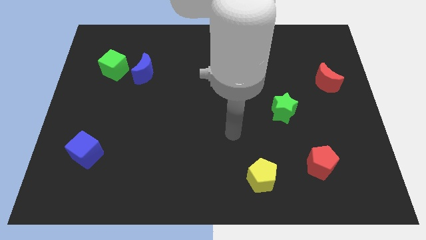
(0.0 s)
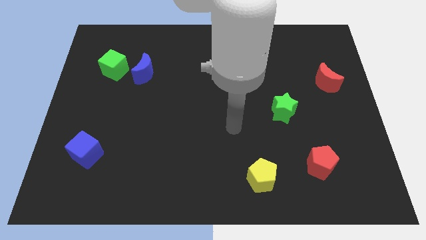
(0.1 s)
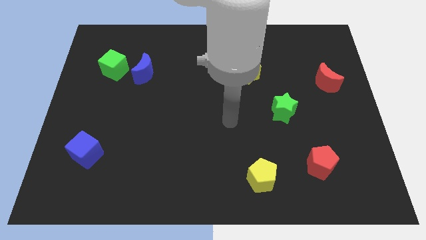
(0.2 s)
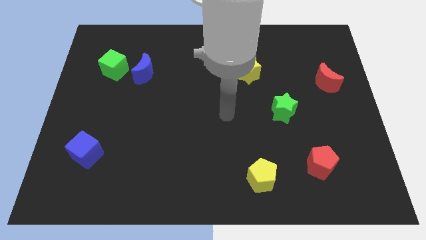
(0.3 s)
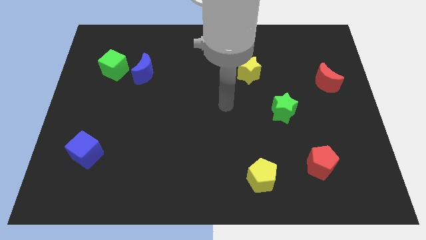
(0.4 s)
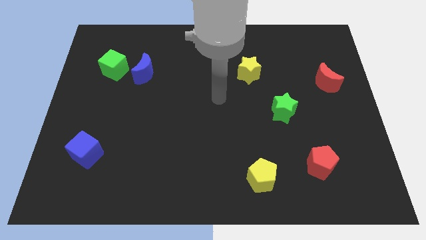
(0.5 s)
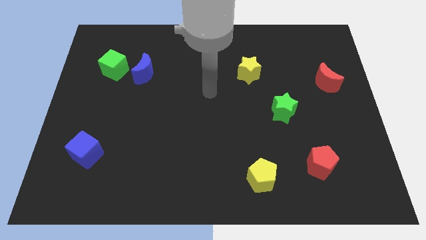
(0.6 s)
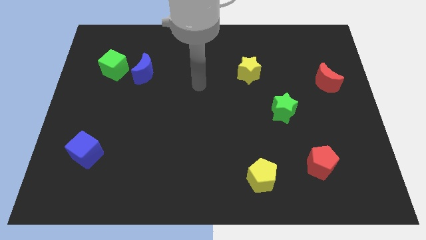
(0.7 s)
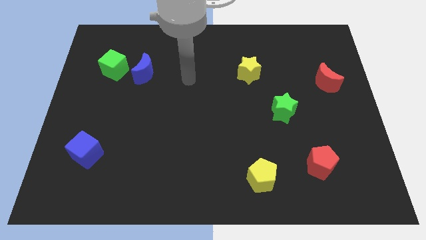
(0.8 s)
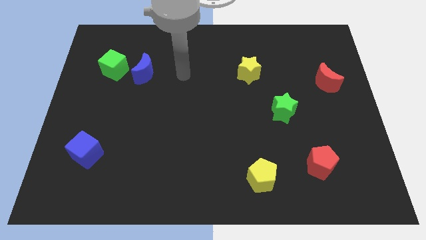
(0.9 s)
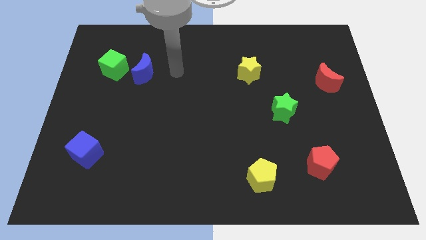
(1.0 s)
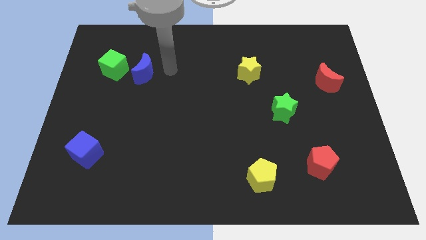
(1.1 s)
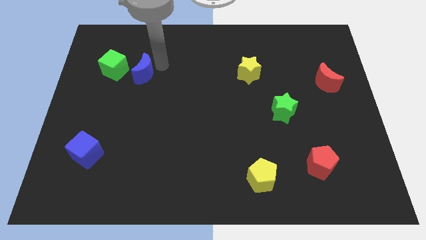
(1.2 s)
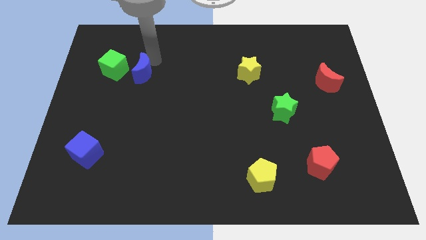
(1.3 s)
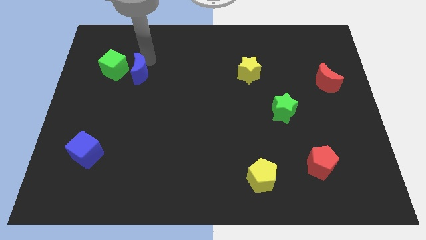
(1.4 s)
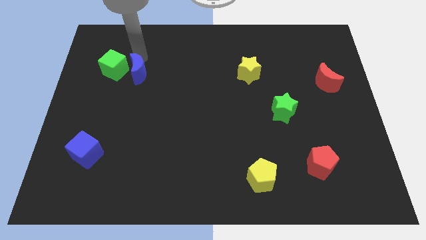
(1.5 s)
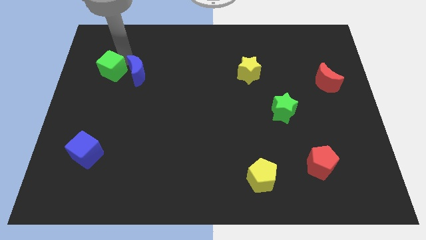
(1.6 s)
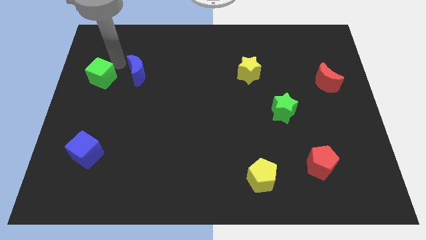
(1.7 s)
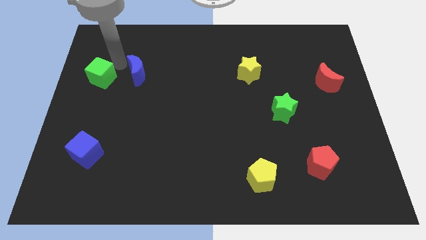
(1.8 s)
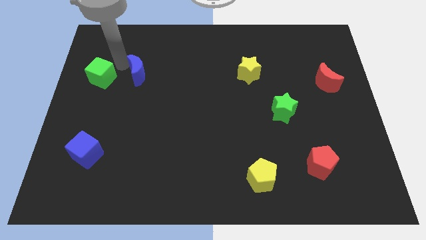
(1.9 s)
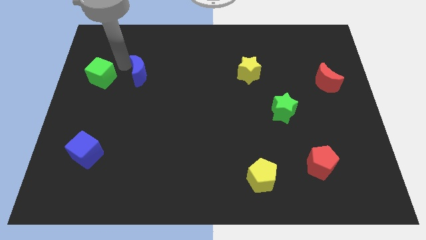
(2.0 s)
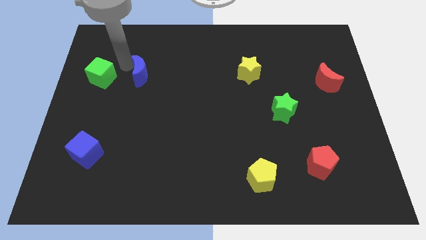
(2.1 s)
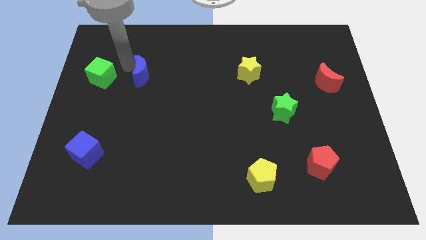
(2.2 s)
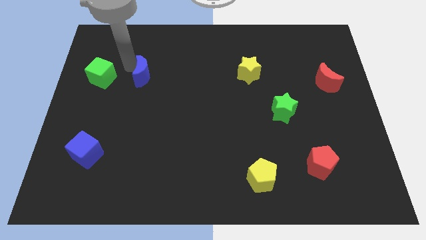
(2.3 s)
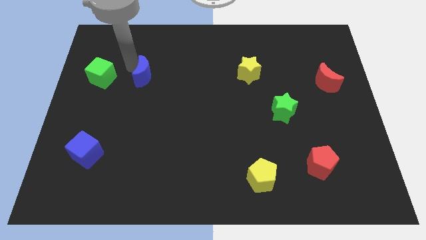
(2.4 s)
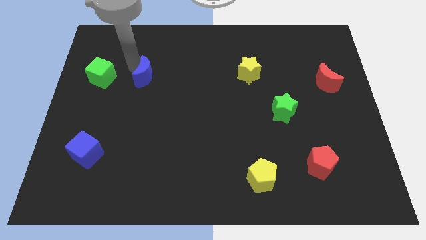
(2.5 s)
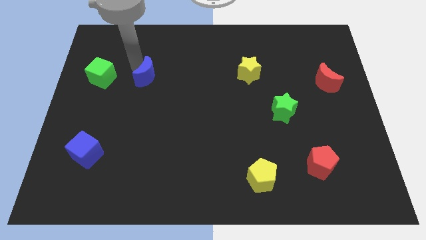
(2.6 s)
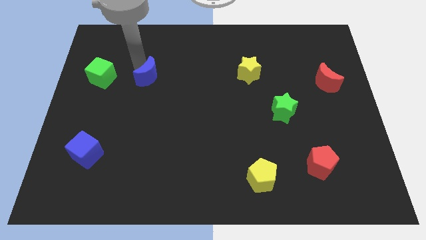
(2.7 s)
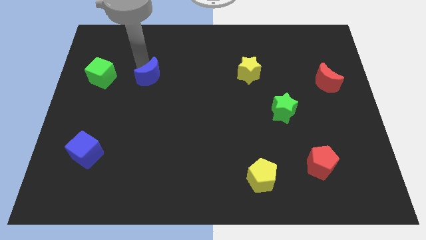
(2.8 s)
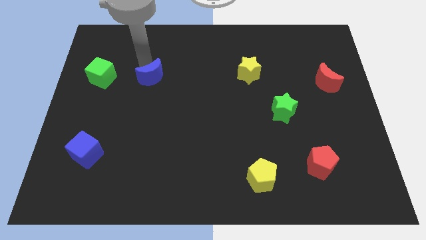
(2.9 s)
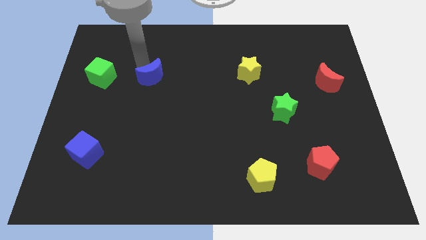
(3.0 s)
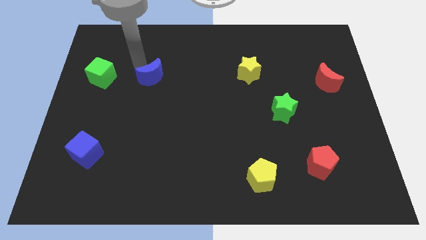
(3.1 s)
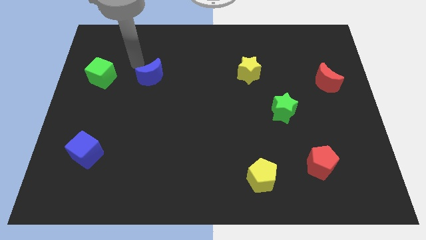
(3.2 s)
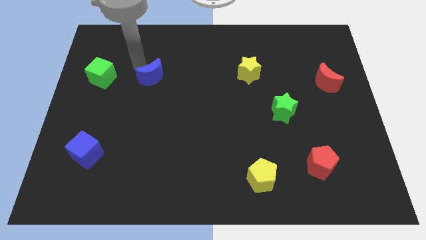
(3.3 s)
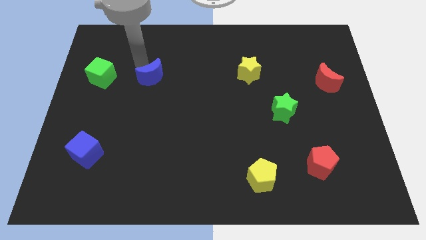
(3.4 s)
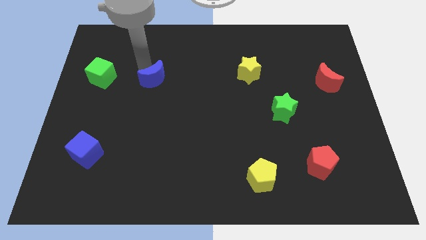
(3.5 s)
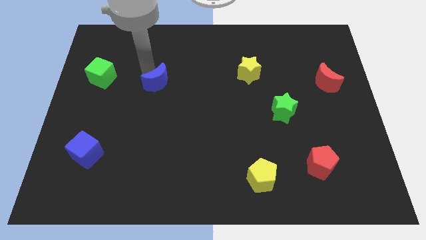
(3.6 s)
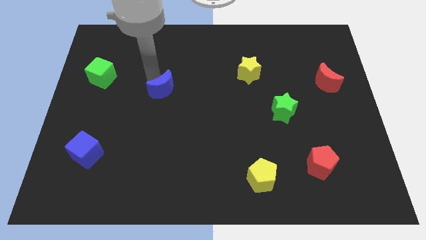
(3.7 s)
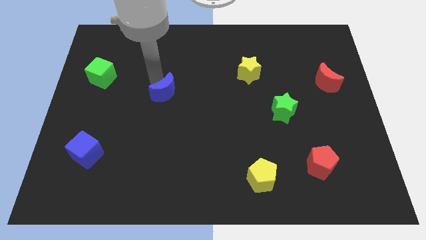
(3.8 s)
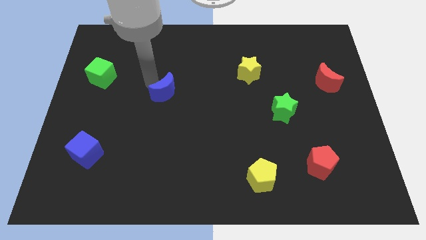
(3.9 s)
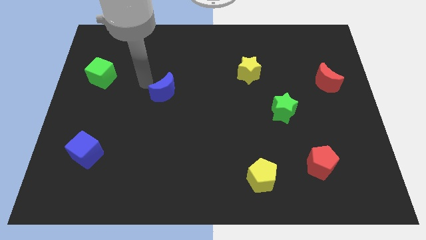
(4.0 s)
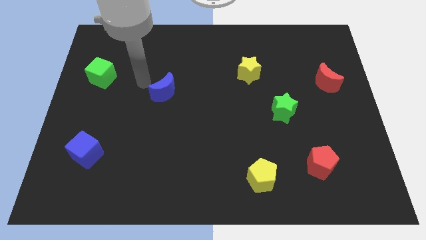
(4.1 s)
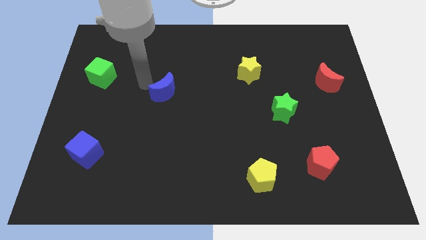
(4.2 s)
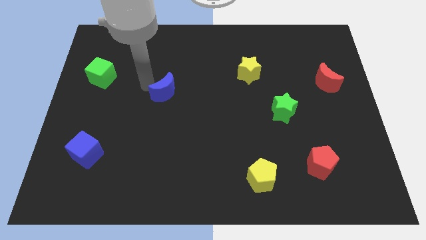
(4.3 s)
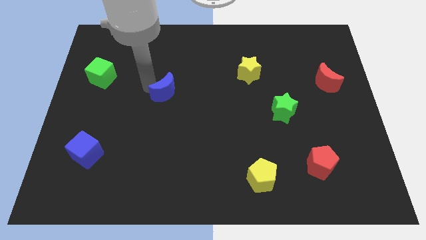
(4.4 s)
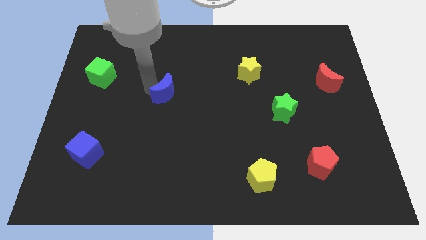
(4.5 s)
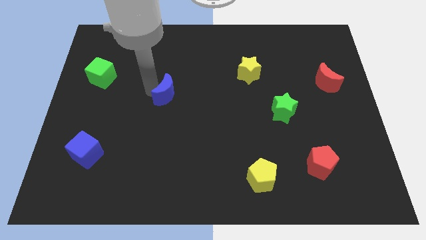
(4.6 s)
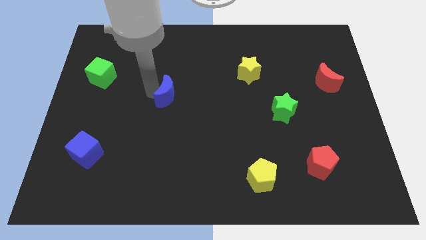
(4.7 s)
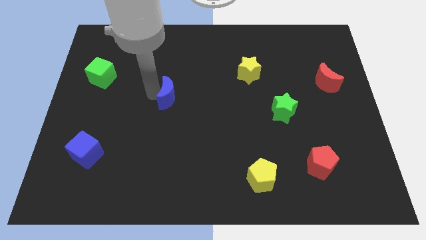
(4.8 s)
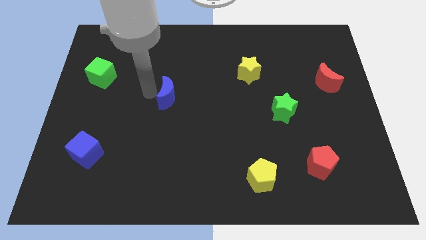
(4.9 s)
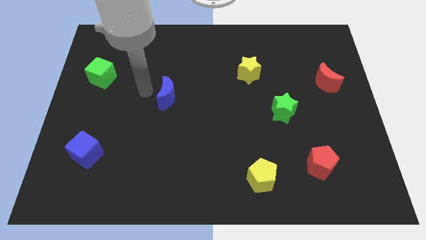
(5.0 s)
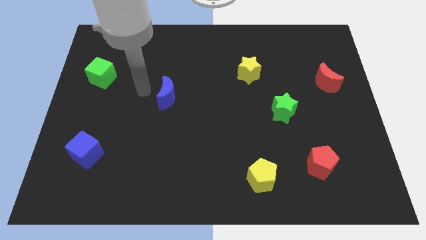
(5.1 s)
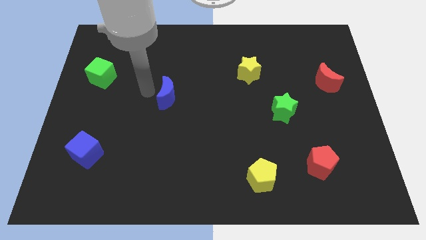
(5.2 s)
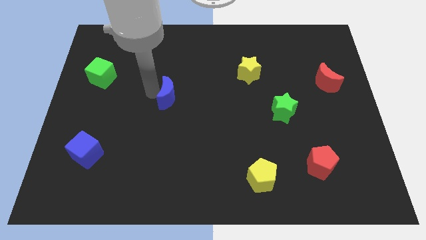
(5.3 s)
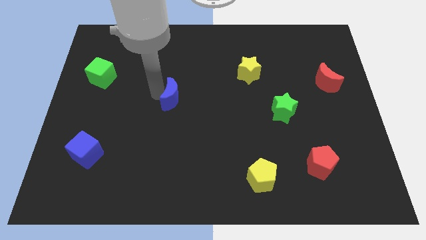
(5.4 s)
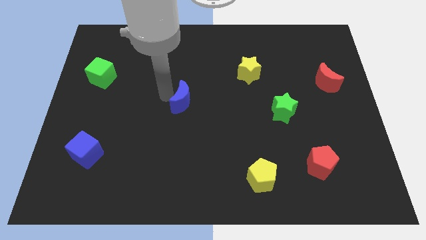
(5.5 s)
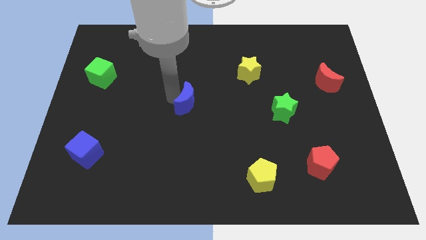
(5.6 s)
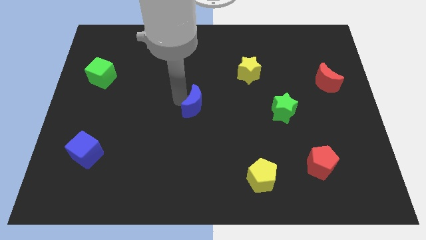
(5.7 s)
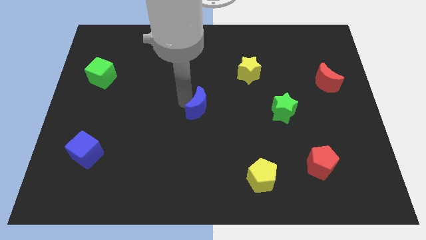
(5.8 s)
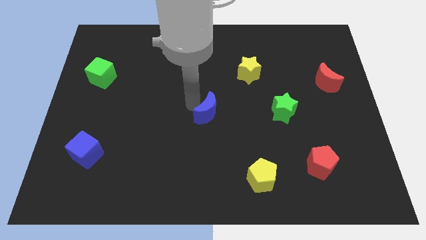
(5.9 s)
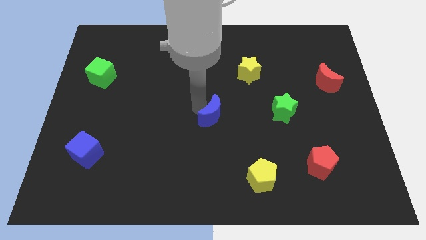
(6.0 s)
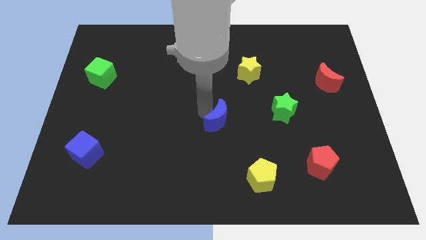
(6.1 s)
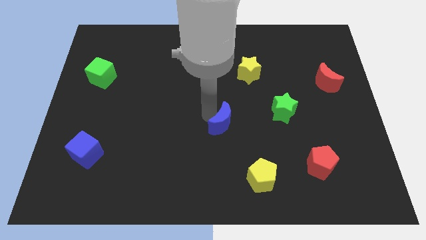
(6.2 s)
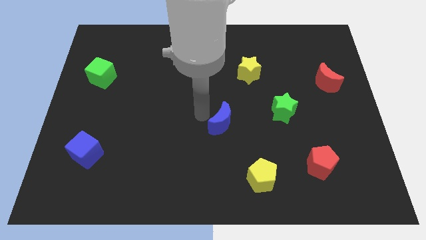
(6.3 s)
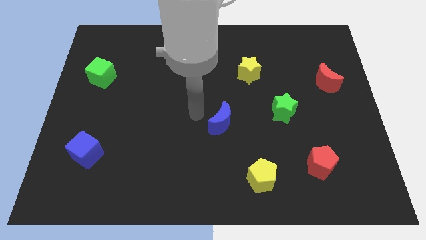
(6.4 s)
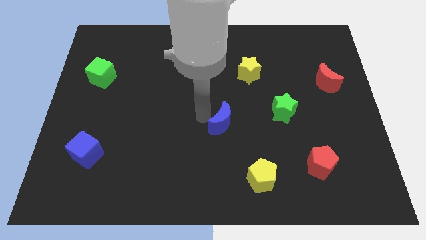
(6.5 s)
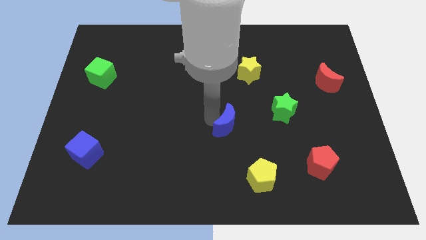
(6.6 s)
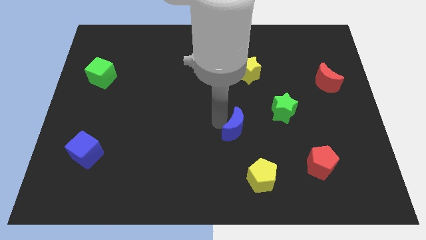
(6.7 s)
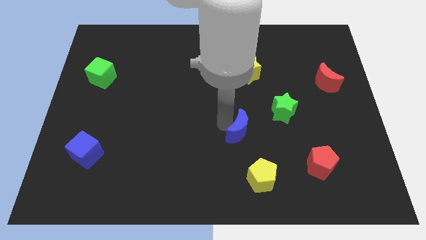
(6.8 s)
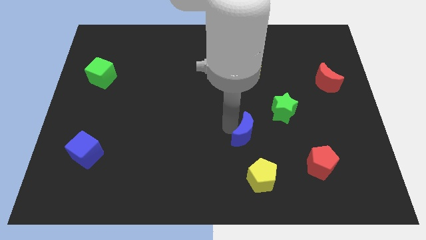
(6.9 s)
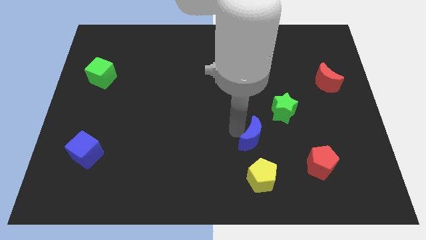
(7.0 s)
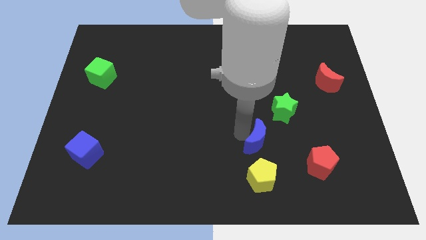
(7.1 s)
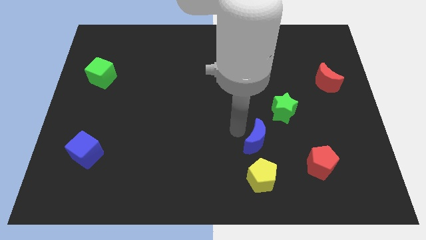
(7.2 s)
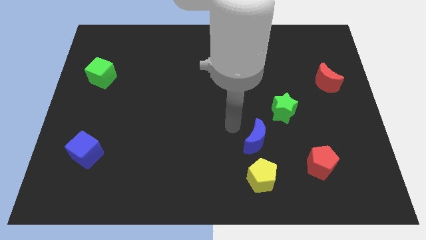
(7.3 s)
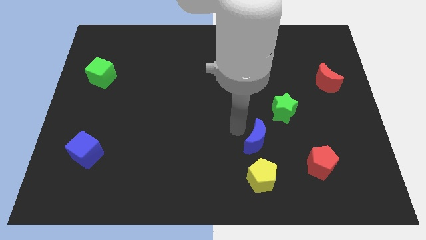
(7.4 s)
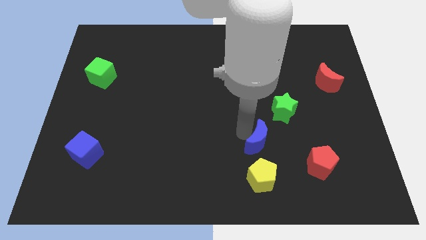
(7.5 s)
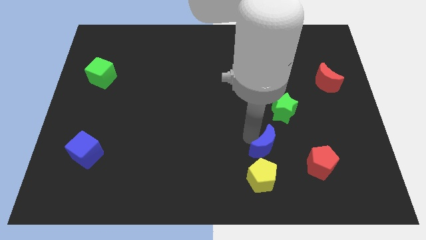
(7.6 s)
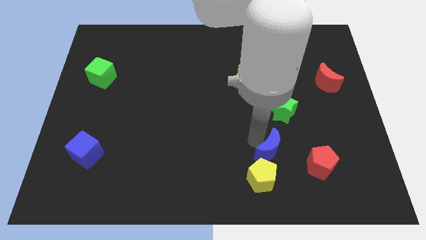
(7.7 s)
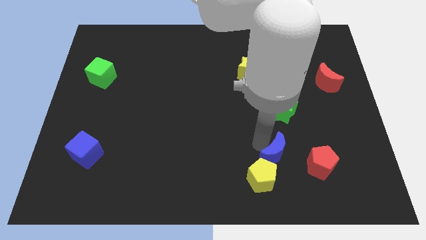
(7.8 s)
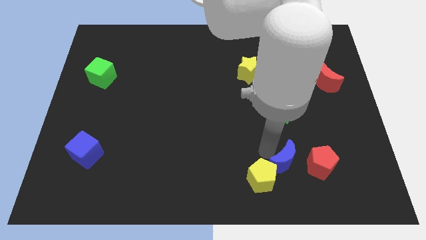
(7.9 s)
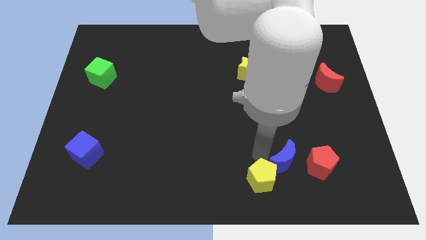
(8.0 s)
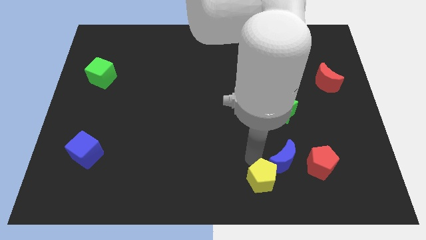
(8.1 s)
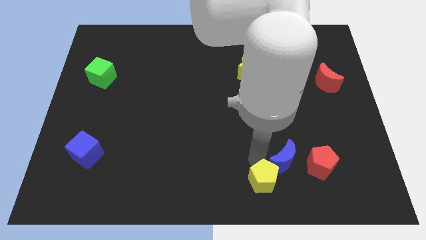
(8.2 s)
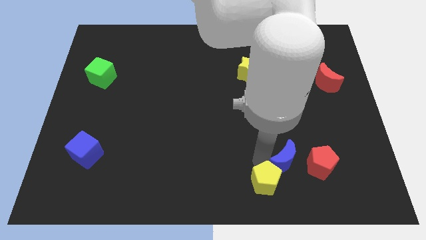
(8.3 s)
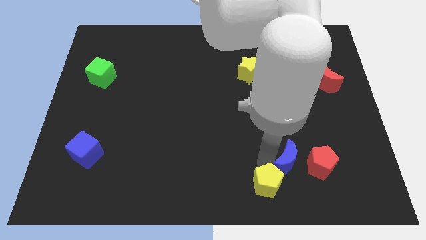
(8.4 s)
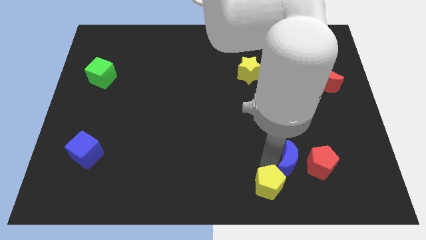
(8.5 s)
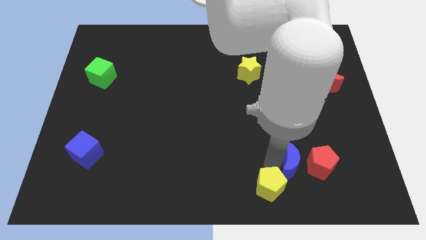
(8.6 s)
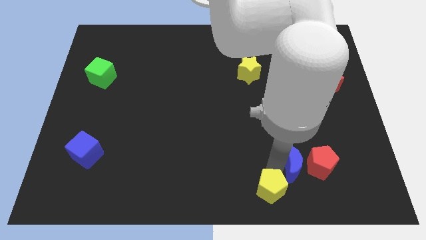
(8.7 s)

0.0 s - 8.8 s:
slide the blue moon to the red pentagon
